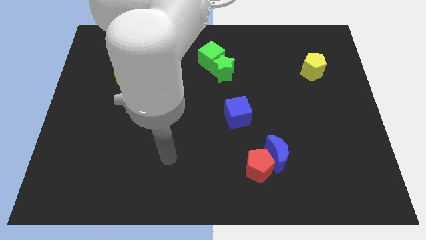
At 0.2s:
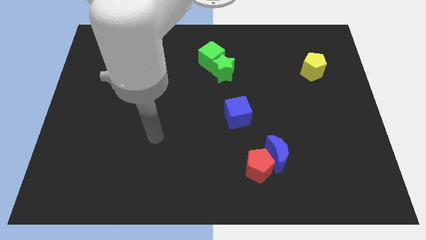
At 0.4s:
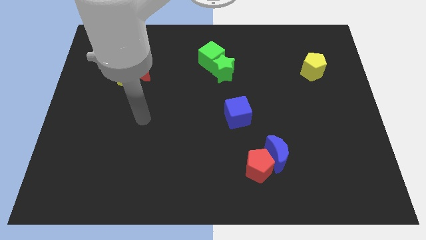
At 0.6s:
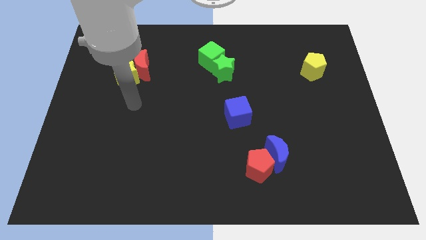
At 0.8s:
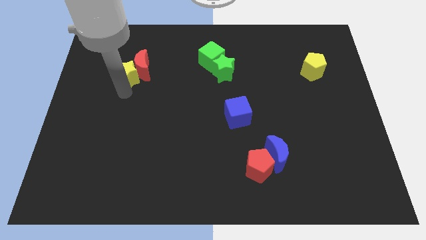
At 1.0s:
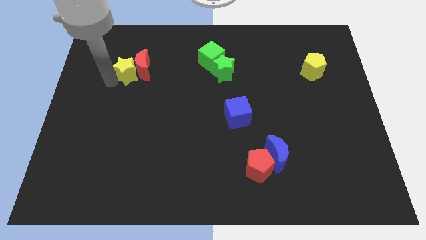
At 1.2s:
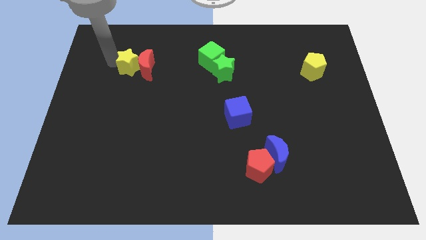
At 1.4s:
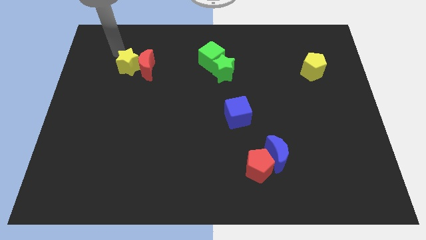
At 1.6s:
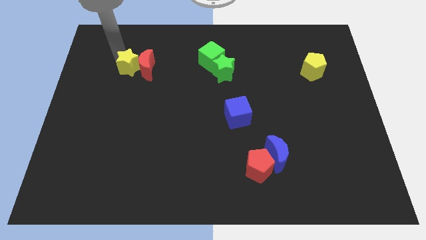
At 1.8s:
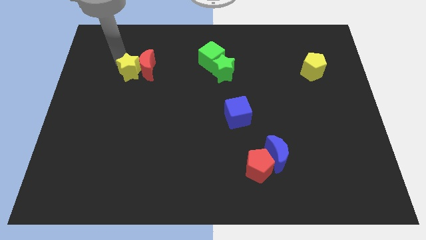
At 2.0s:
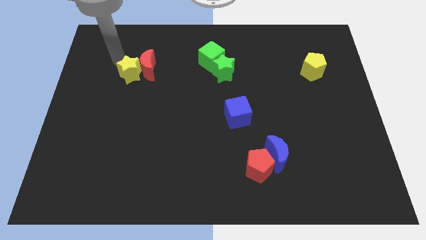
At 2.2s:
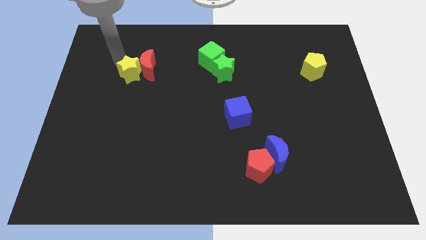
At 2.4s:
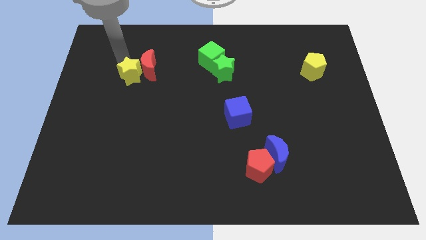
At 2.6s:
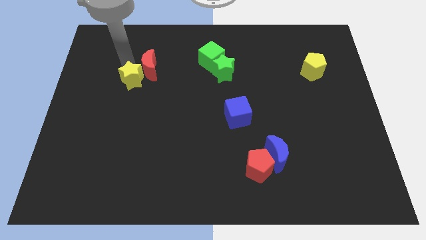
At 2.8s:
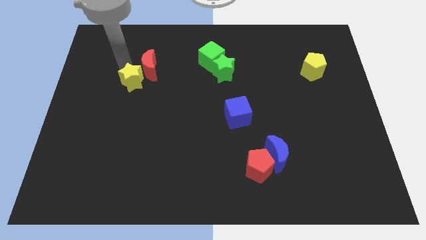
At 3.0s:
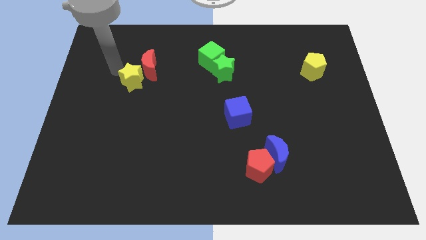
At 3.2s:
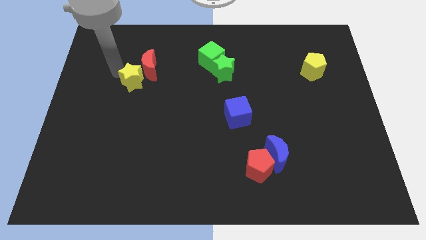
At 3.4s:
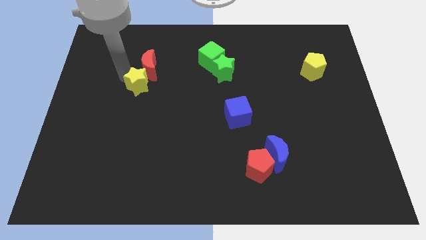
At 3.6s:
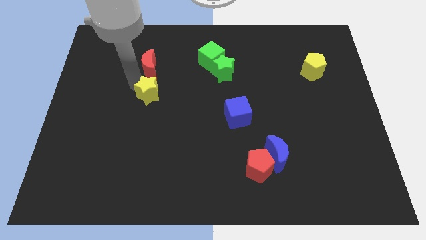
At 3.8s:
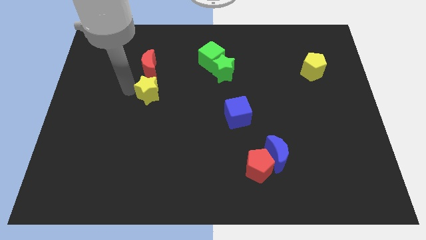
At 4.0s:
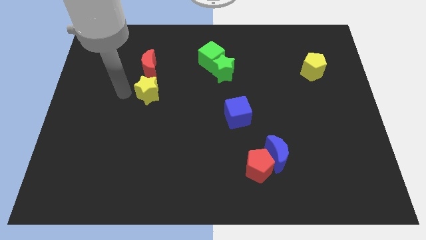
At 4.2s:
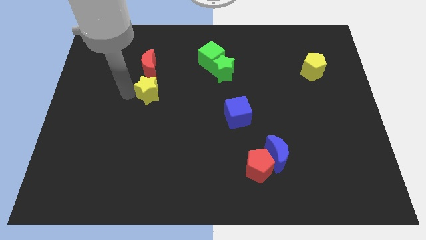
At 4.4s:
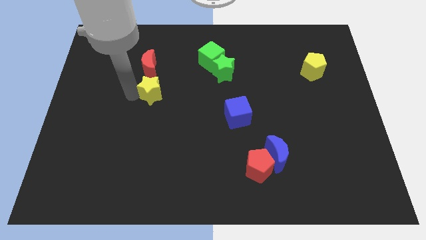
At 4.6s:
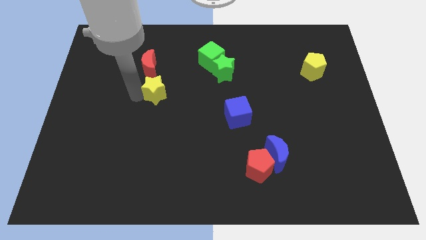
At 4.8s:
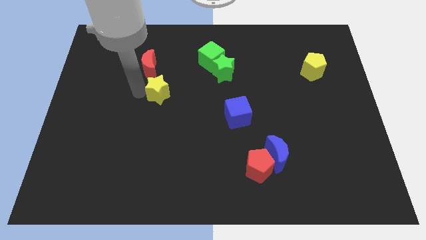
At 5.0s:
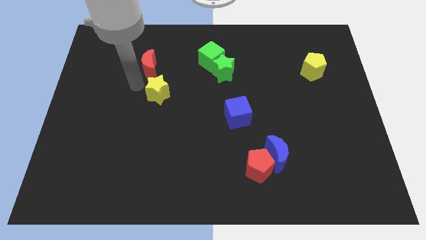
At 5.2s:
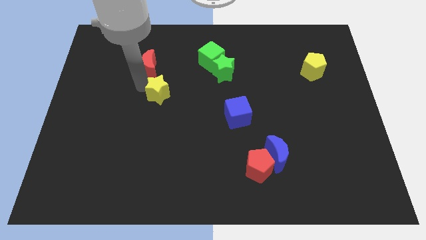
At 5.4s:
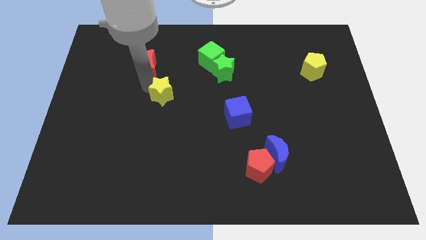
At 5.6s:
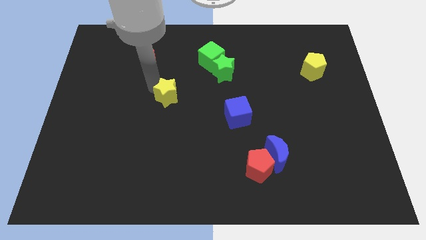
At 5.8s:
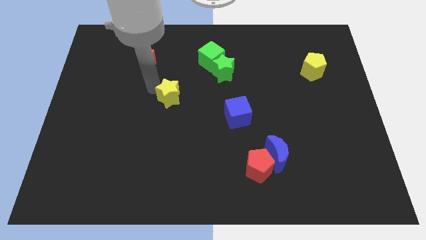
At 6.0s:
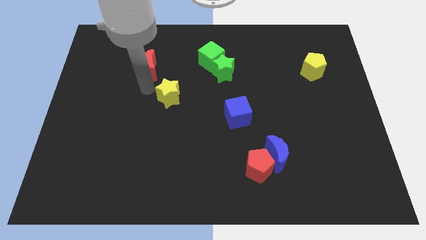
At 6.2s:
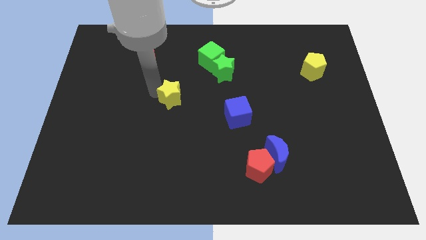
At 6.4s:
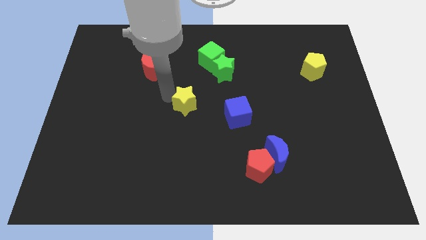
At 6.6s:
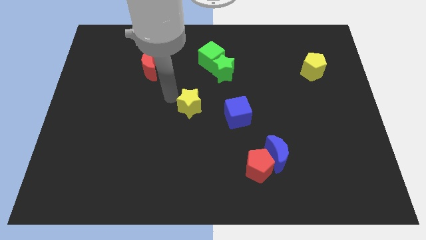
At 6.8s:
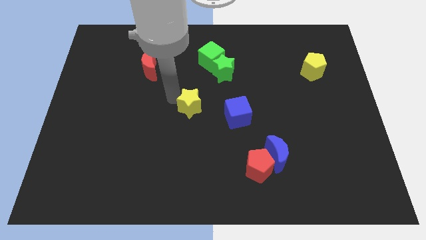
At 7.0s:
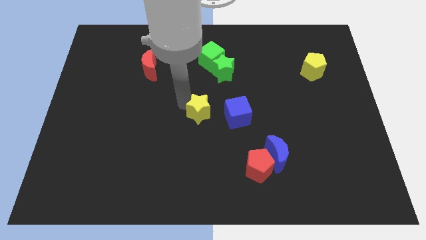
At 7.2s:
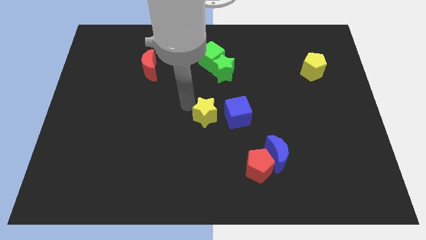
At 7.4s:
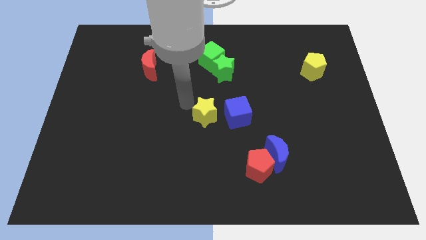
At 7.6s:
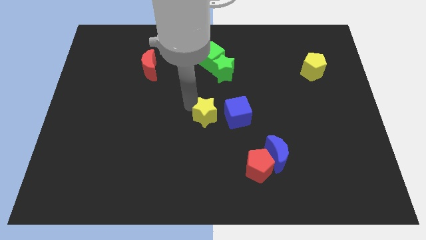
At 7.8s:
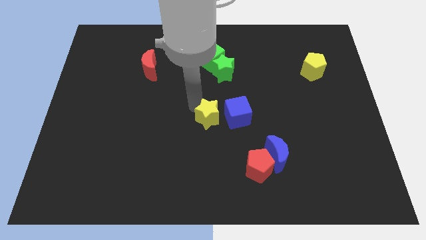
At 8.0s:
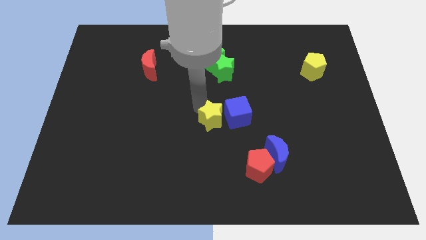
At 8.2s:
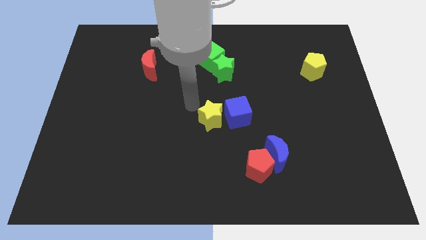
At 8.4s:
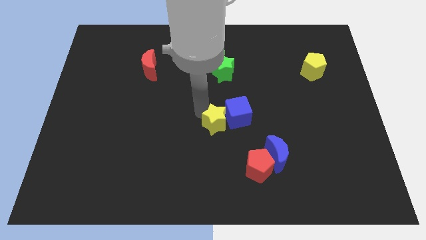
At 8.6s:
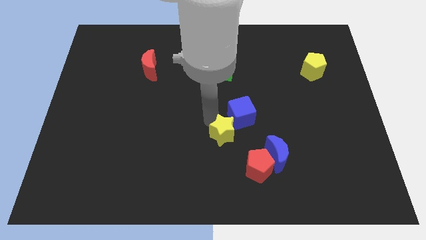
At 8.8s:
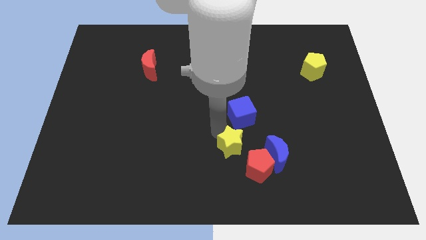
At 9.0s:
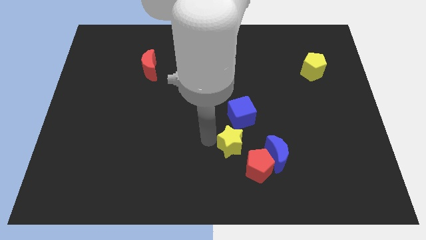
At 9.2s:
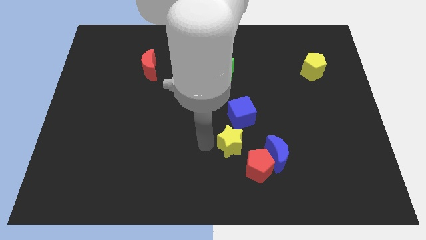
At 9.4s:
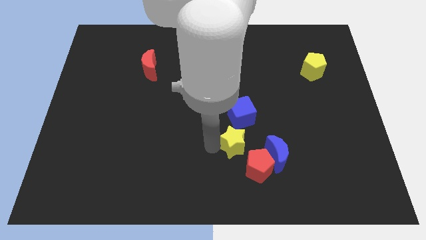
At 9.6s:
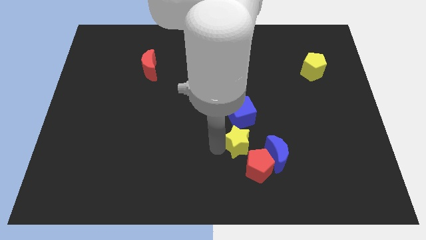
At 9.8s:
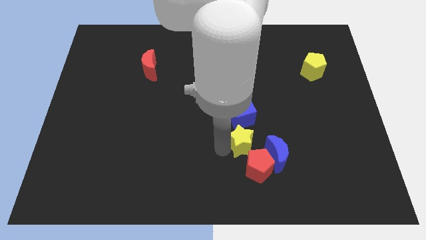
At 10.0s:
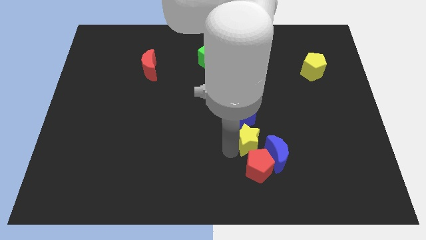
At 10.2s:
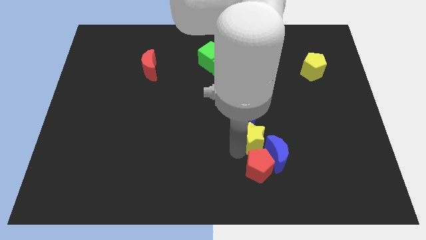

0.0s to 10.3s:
push the yellow star towards the blue moon

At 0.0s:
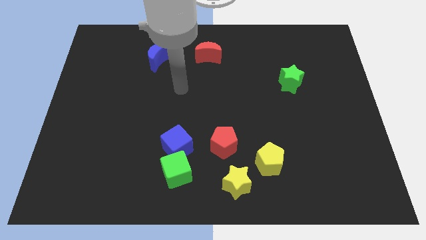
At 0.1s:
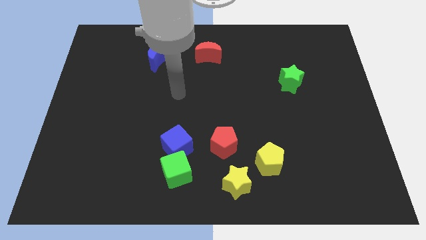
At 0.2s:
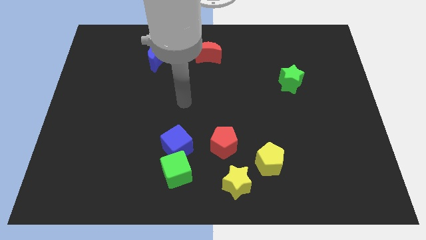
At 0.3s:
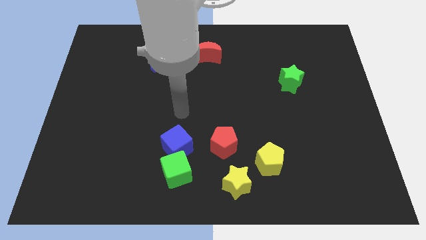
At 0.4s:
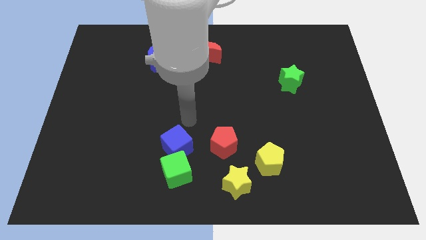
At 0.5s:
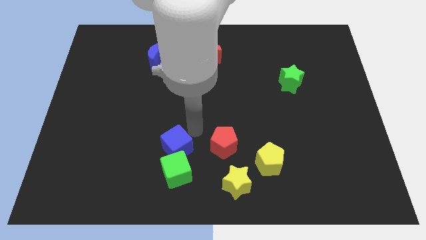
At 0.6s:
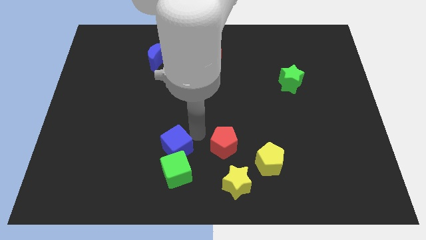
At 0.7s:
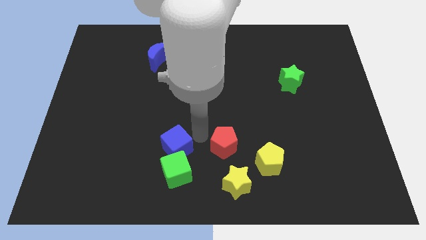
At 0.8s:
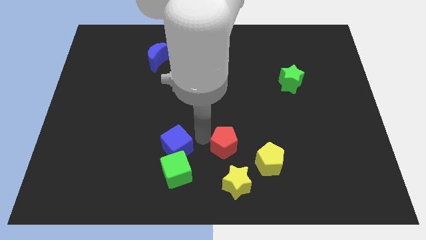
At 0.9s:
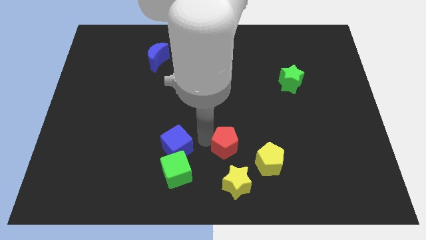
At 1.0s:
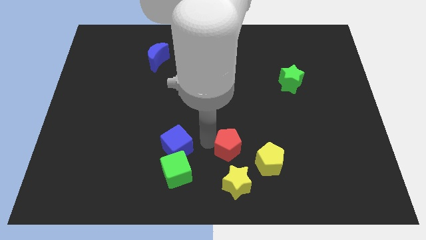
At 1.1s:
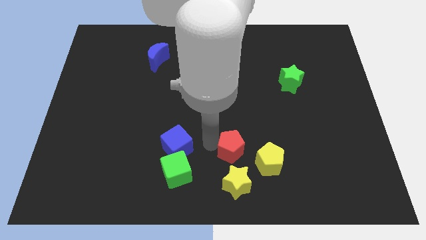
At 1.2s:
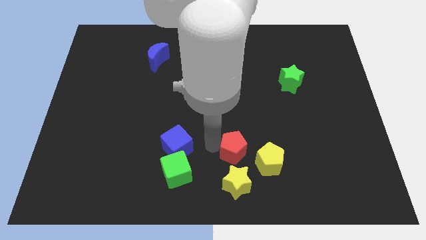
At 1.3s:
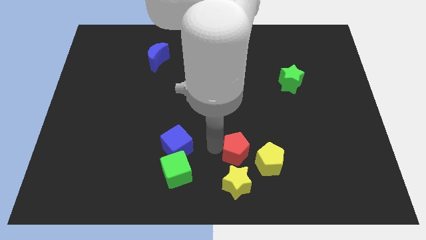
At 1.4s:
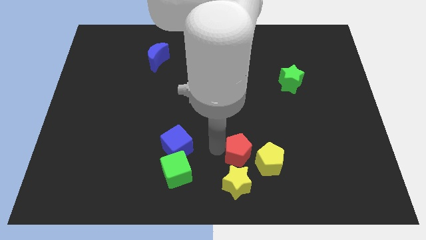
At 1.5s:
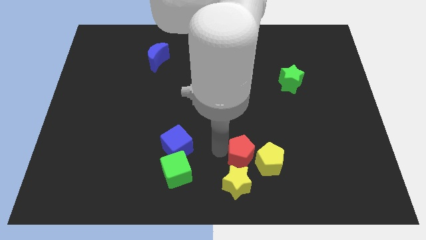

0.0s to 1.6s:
put the red pentagon to the yellow pentagon
